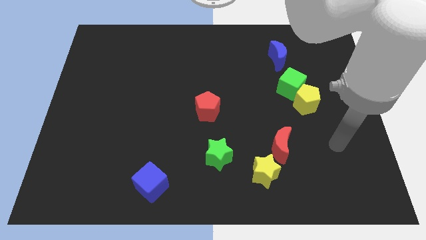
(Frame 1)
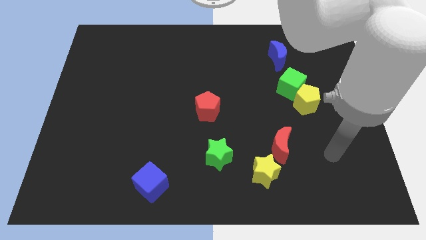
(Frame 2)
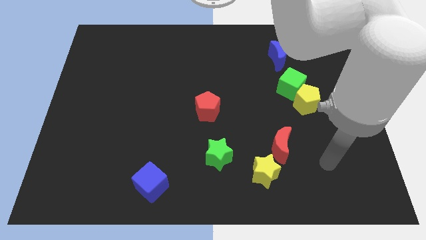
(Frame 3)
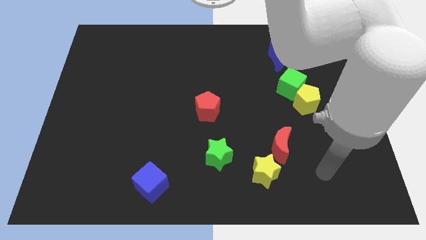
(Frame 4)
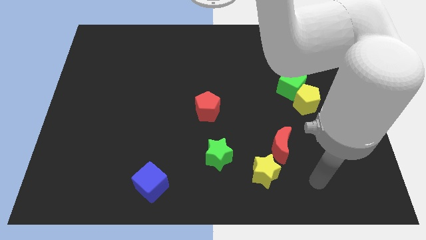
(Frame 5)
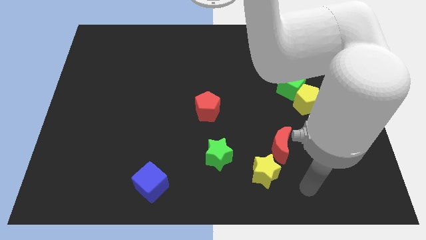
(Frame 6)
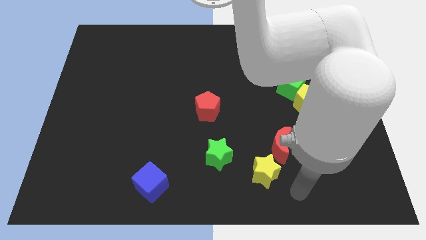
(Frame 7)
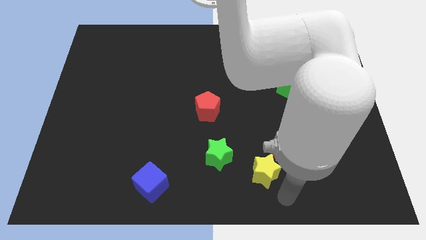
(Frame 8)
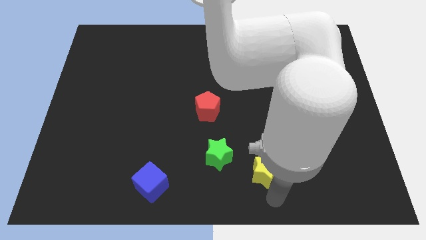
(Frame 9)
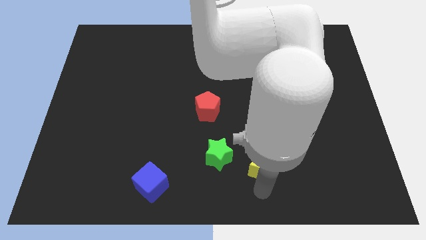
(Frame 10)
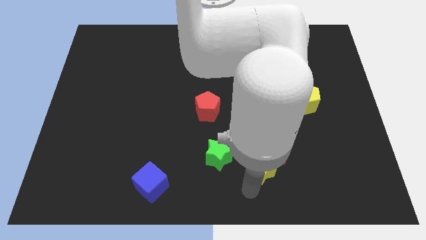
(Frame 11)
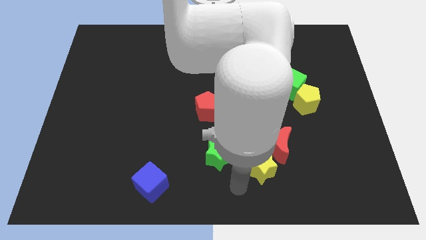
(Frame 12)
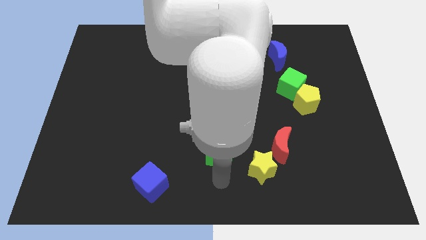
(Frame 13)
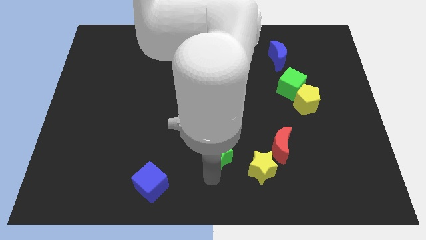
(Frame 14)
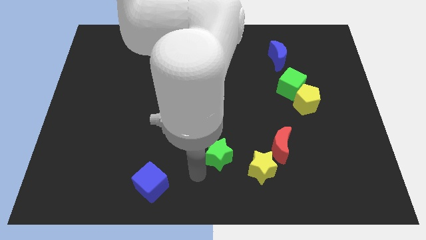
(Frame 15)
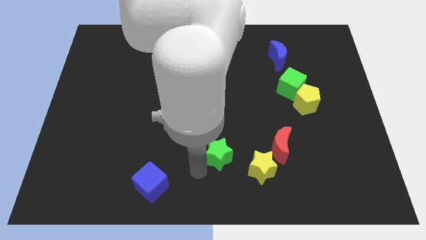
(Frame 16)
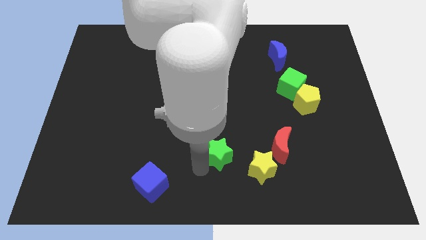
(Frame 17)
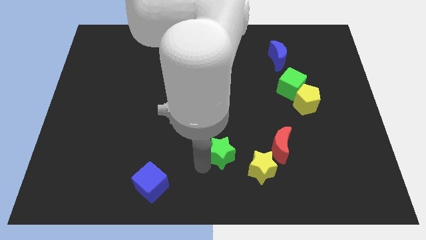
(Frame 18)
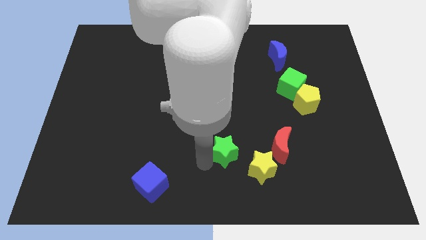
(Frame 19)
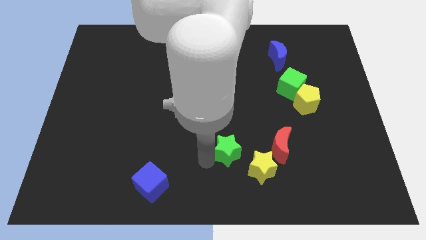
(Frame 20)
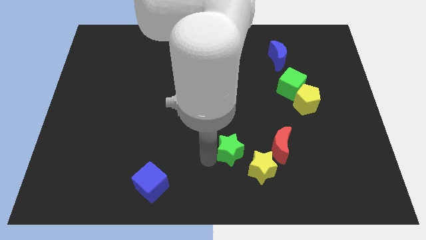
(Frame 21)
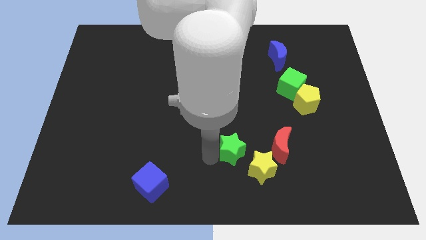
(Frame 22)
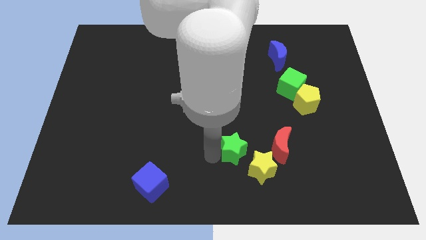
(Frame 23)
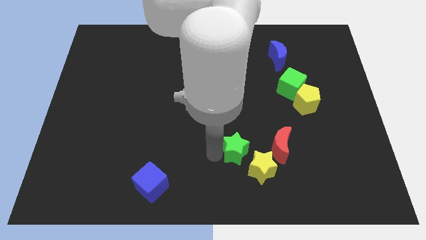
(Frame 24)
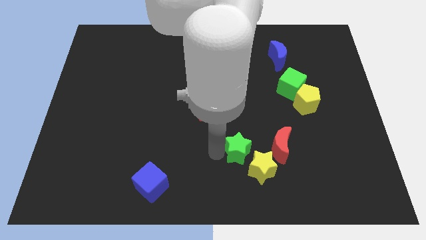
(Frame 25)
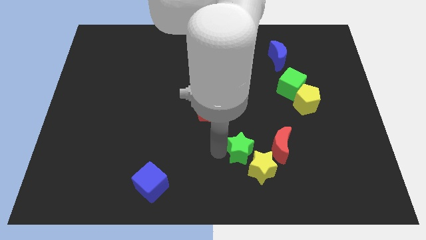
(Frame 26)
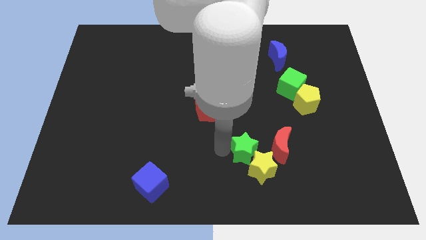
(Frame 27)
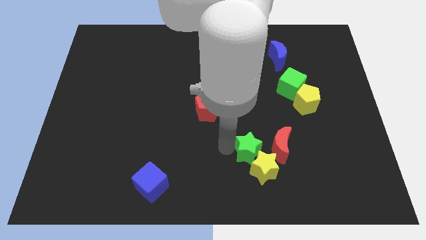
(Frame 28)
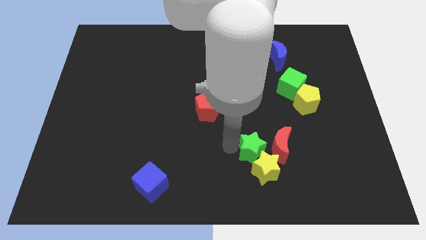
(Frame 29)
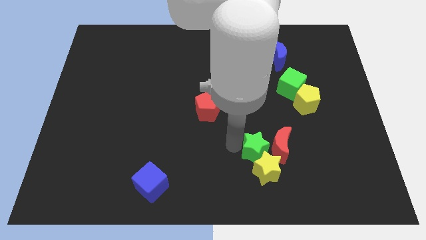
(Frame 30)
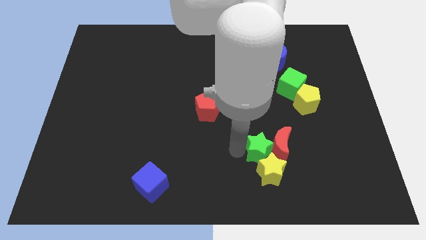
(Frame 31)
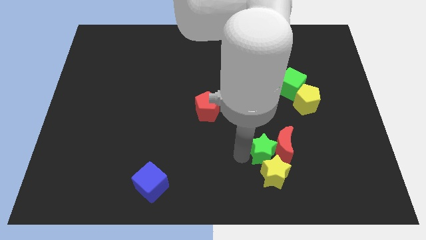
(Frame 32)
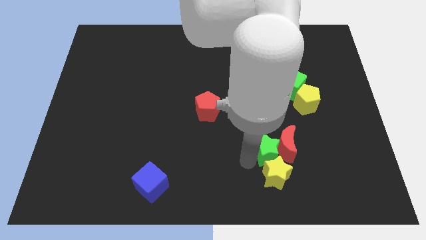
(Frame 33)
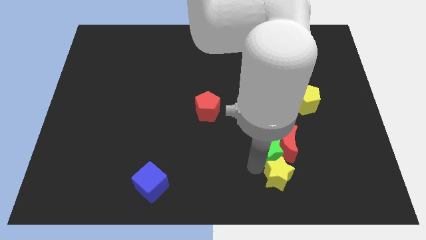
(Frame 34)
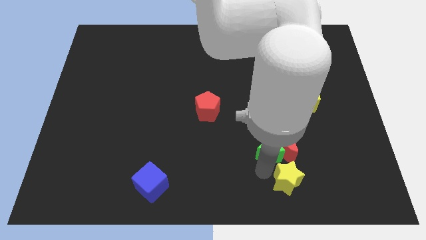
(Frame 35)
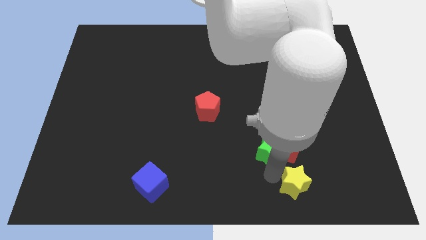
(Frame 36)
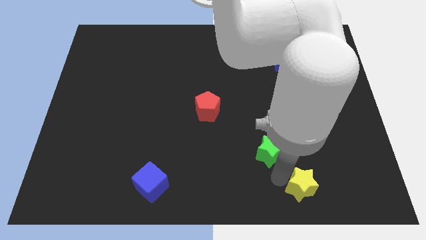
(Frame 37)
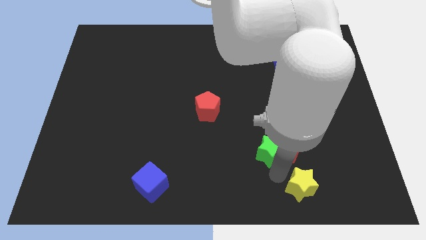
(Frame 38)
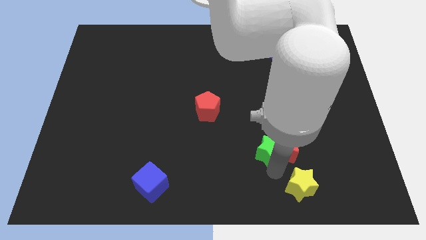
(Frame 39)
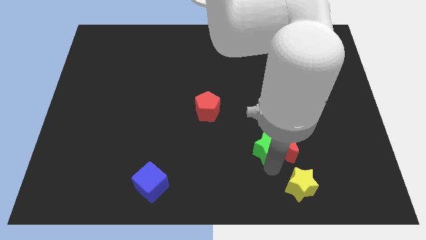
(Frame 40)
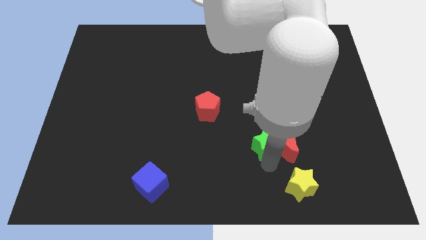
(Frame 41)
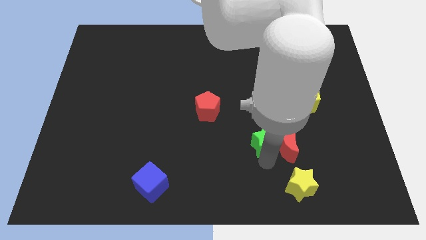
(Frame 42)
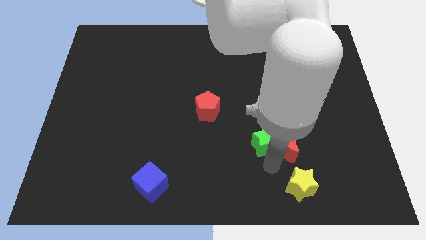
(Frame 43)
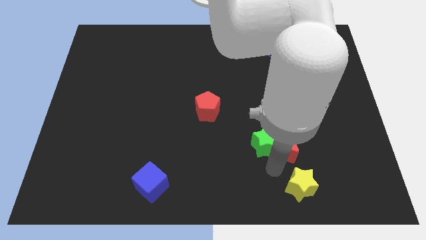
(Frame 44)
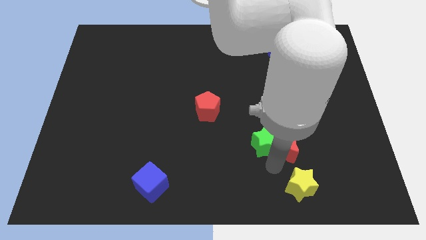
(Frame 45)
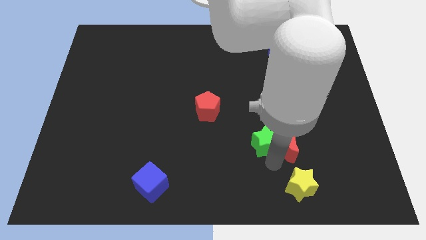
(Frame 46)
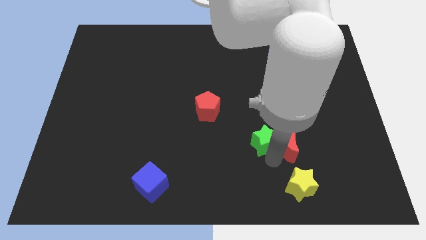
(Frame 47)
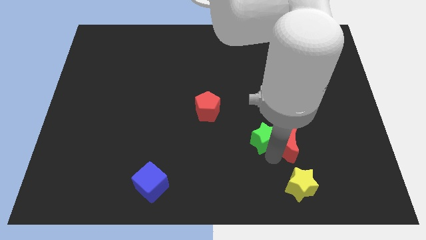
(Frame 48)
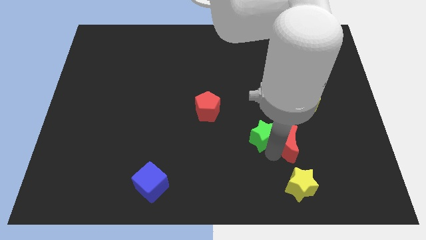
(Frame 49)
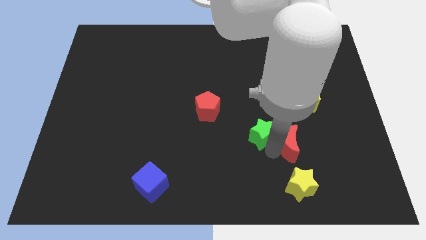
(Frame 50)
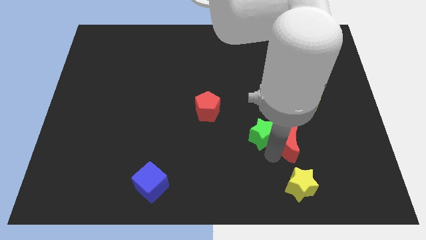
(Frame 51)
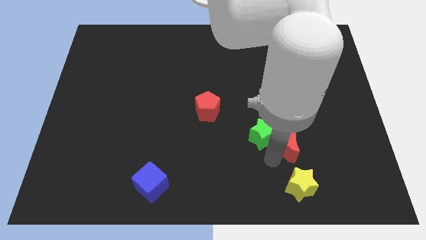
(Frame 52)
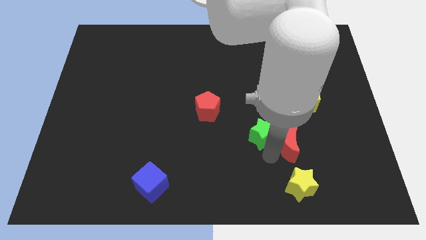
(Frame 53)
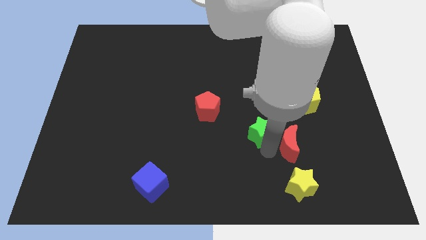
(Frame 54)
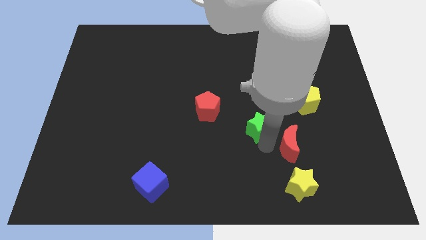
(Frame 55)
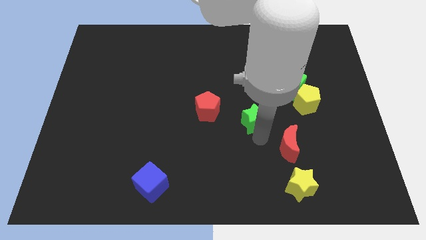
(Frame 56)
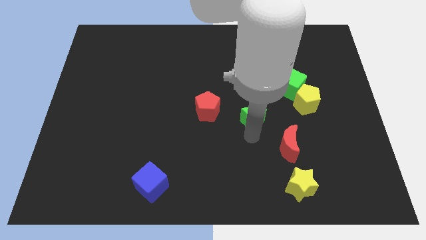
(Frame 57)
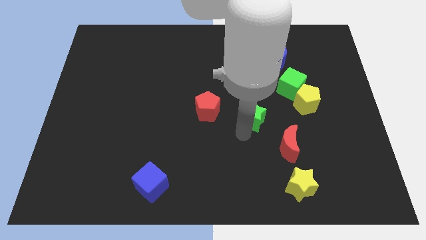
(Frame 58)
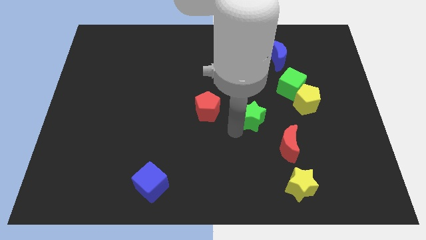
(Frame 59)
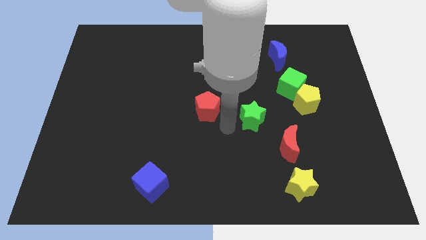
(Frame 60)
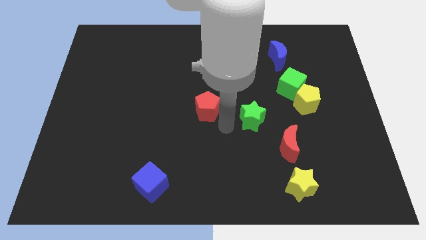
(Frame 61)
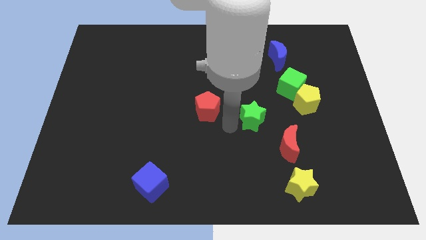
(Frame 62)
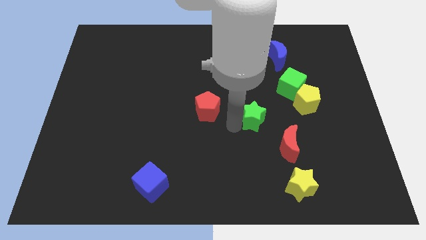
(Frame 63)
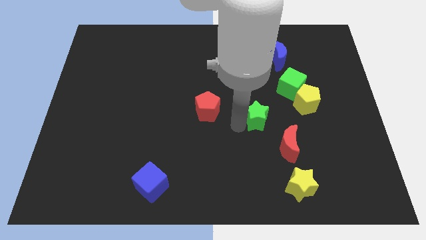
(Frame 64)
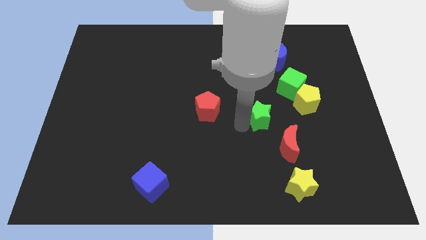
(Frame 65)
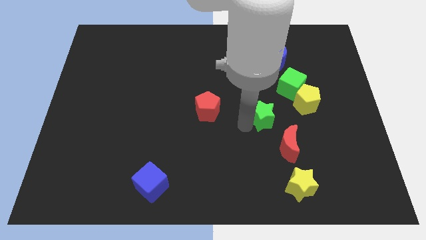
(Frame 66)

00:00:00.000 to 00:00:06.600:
push the green star to the top of the red moon

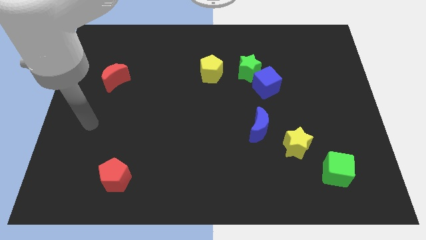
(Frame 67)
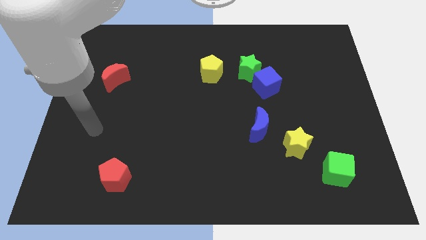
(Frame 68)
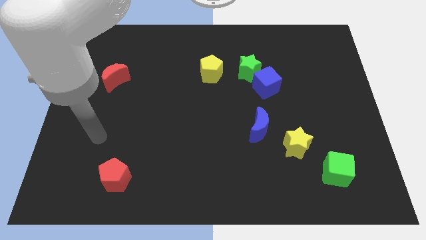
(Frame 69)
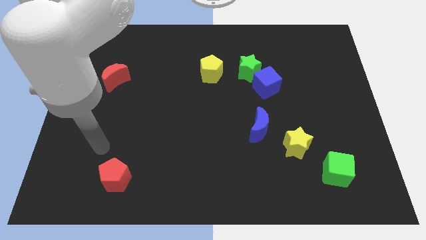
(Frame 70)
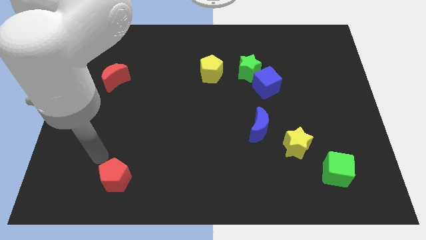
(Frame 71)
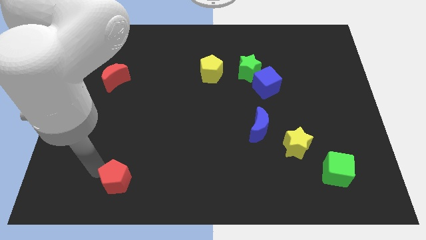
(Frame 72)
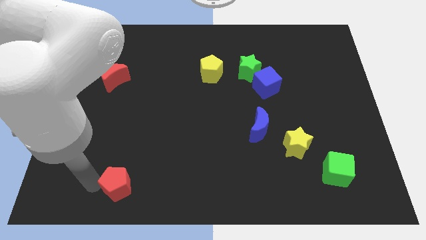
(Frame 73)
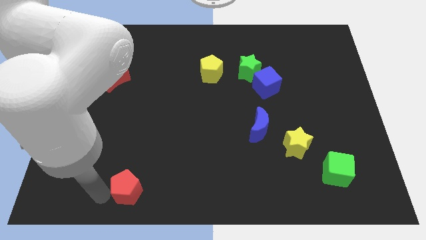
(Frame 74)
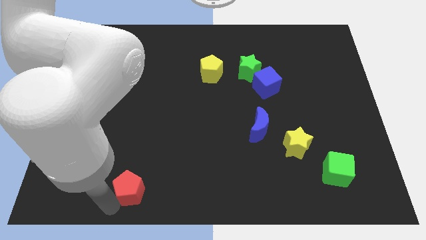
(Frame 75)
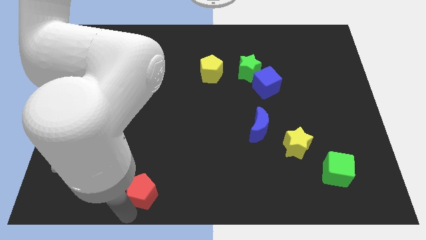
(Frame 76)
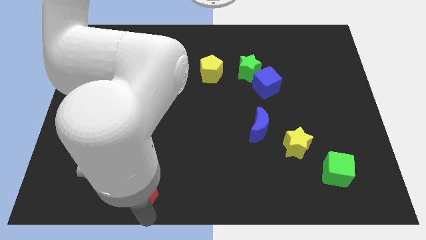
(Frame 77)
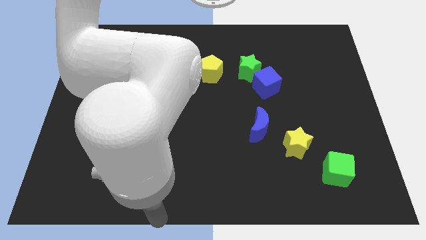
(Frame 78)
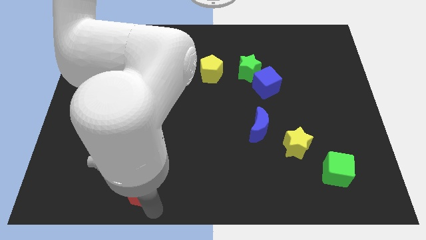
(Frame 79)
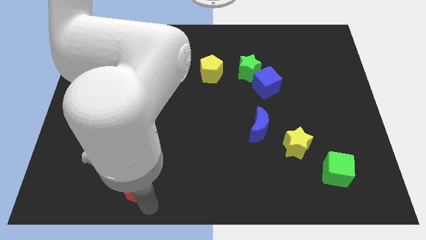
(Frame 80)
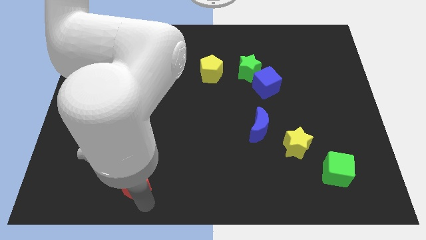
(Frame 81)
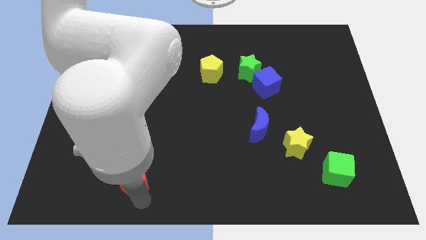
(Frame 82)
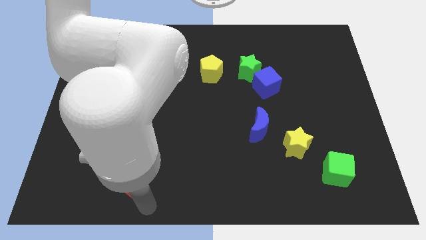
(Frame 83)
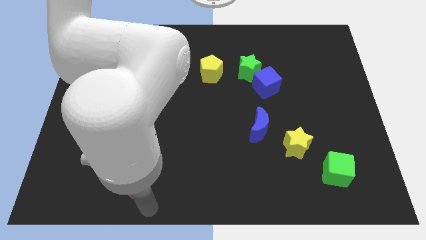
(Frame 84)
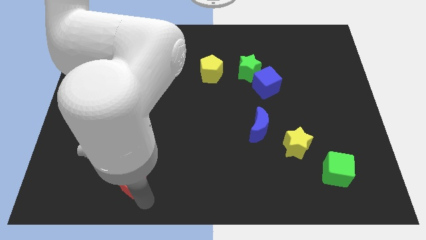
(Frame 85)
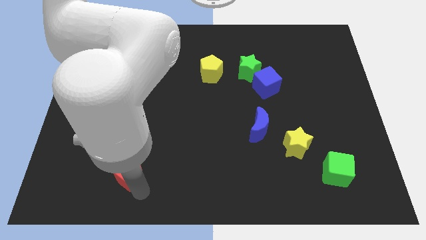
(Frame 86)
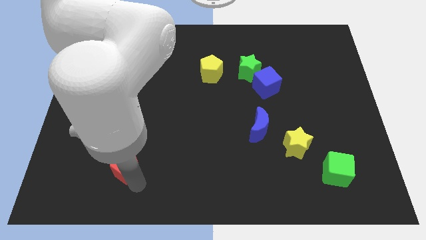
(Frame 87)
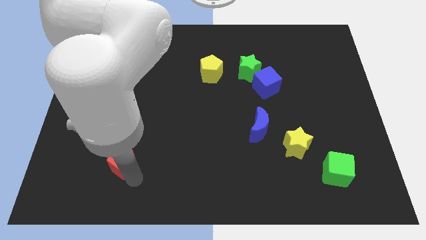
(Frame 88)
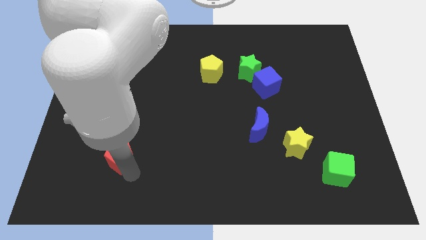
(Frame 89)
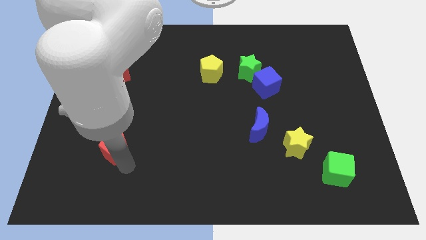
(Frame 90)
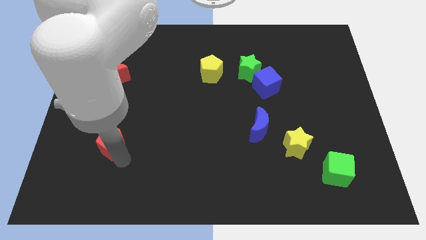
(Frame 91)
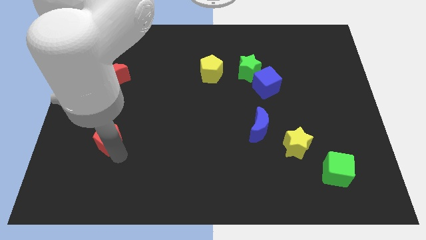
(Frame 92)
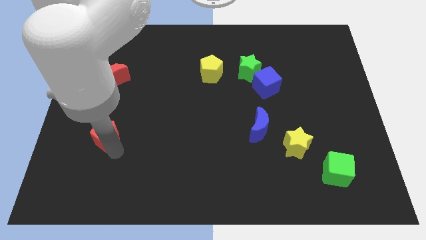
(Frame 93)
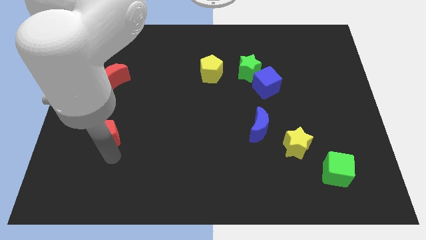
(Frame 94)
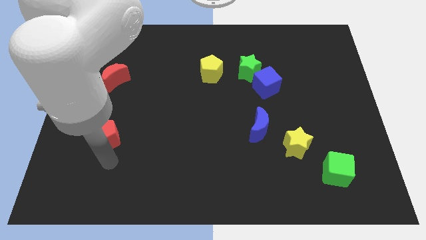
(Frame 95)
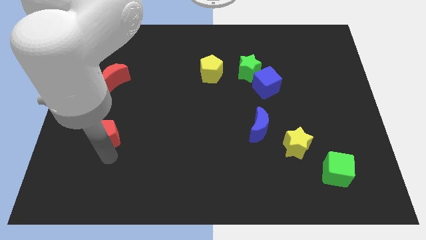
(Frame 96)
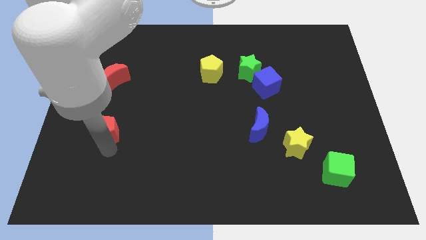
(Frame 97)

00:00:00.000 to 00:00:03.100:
move the red pentagon to the bottom of the red moon
